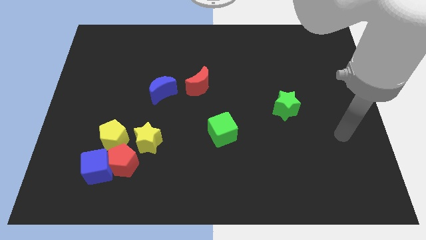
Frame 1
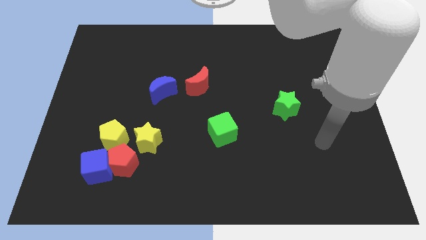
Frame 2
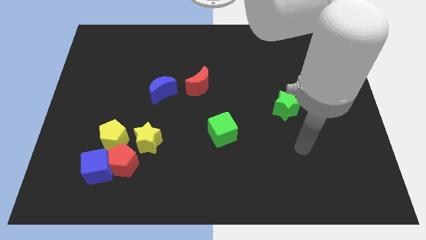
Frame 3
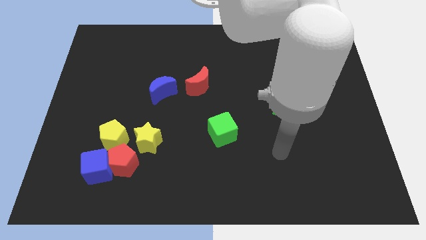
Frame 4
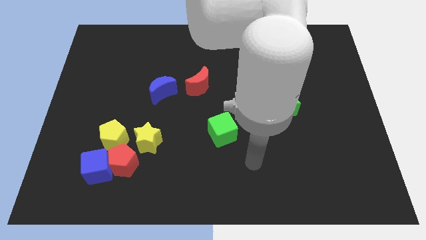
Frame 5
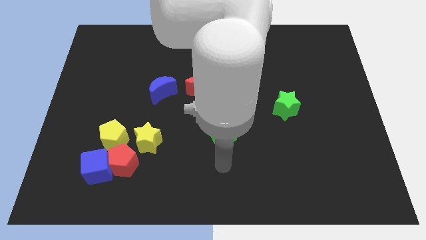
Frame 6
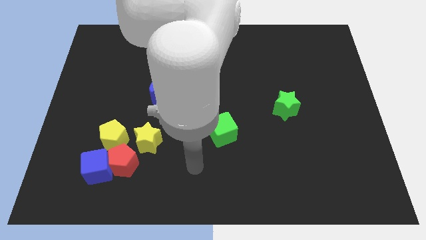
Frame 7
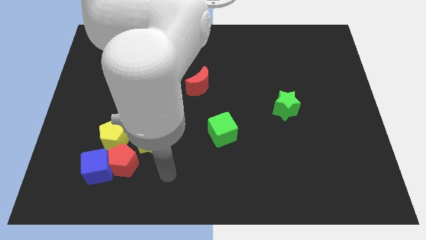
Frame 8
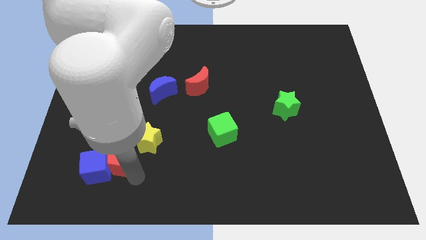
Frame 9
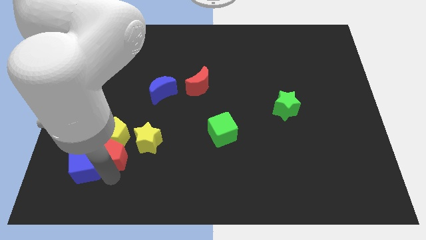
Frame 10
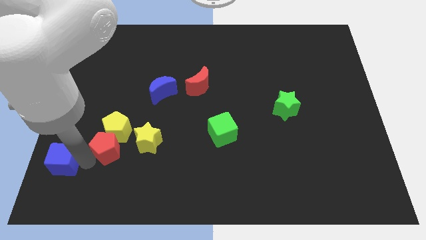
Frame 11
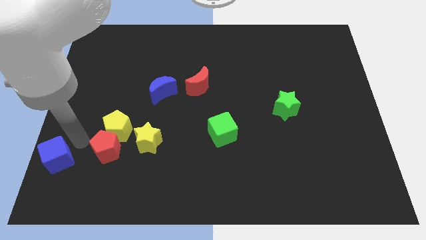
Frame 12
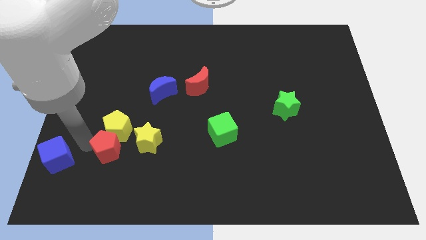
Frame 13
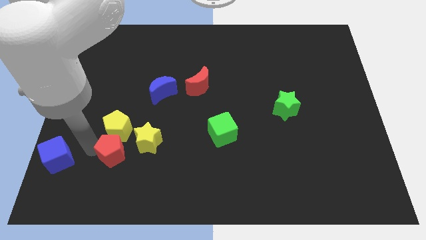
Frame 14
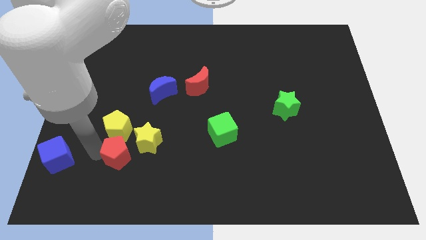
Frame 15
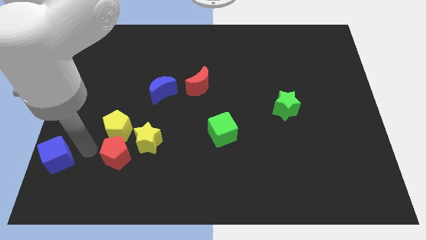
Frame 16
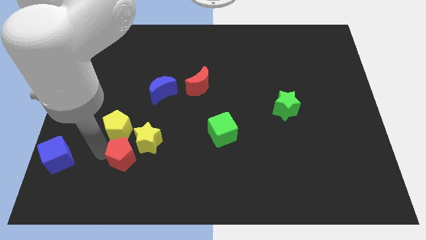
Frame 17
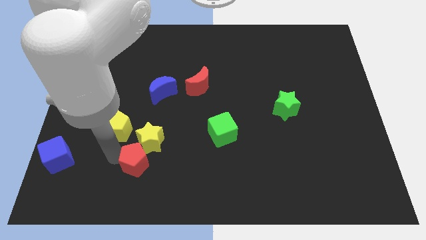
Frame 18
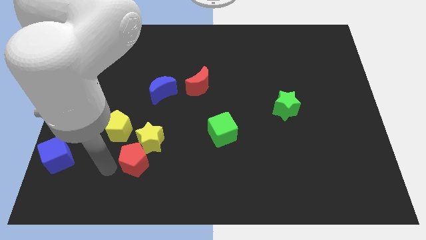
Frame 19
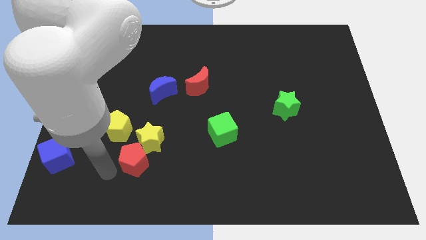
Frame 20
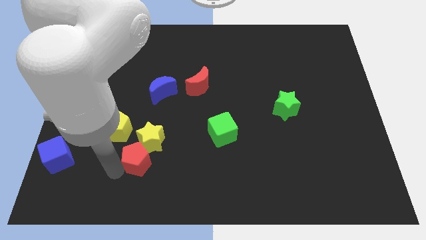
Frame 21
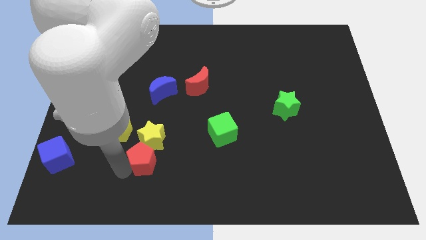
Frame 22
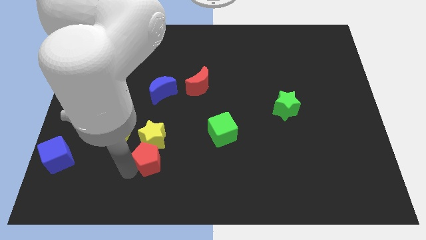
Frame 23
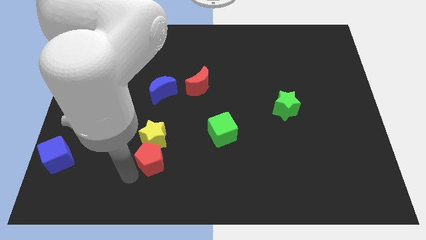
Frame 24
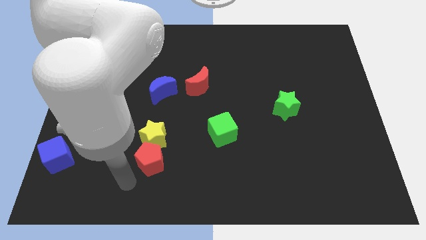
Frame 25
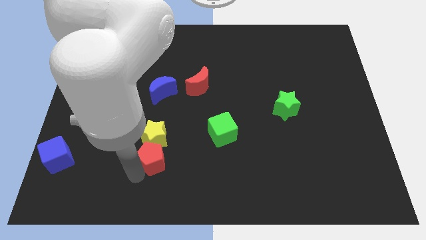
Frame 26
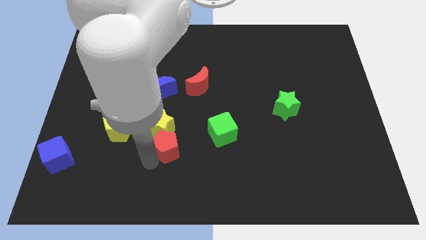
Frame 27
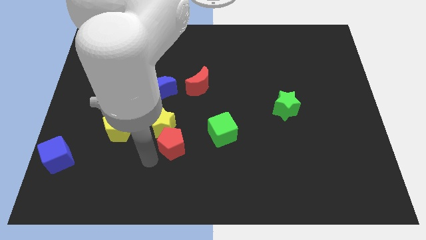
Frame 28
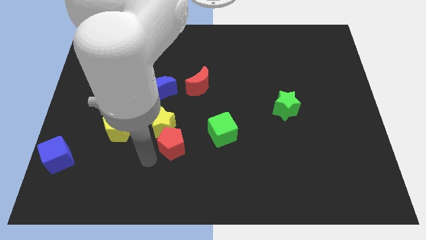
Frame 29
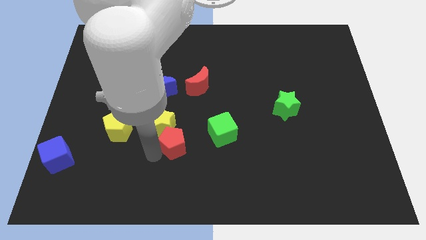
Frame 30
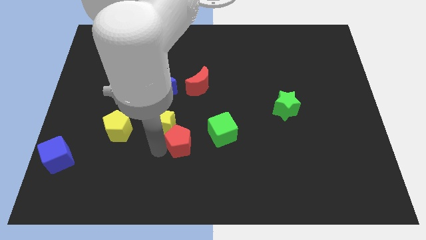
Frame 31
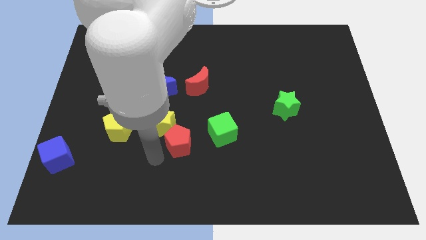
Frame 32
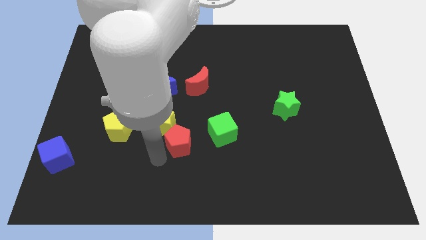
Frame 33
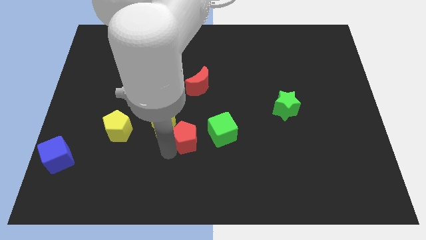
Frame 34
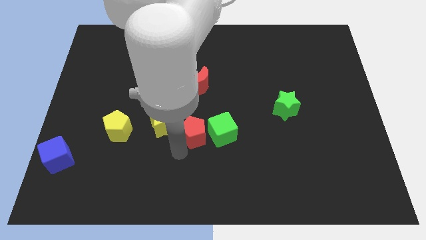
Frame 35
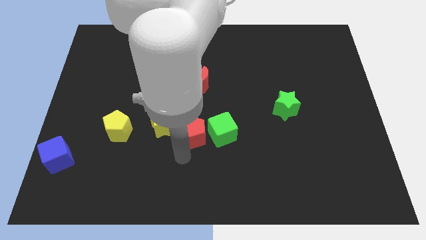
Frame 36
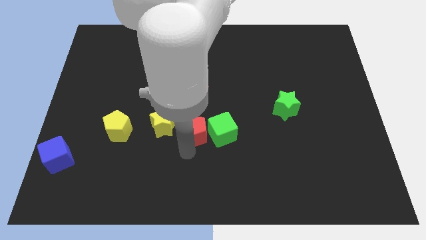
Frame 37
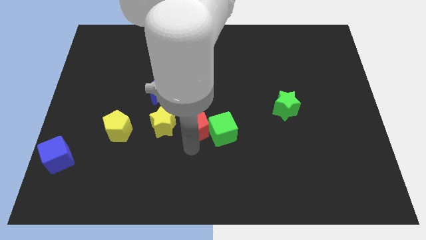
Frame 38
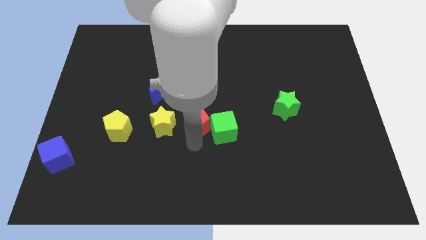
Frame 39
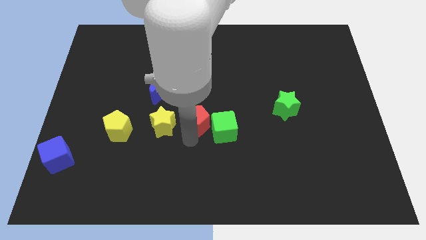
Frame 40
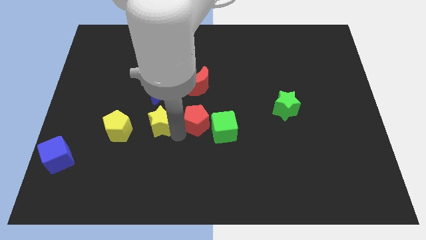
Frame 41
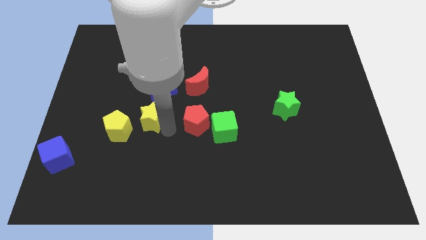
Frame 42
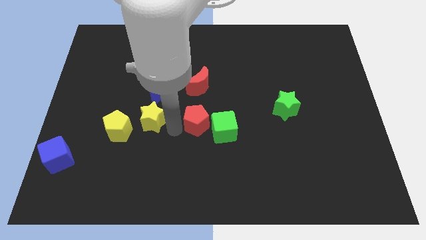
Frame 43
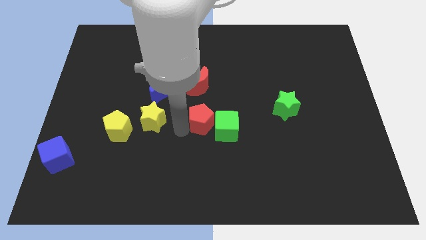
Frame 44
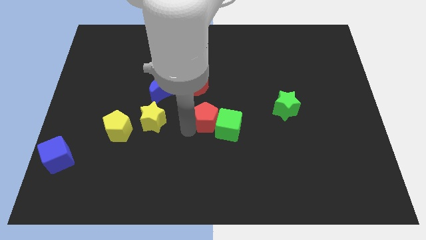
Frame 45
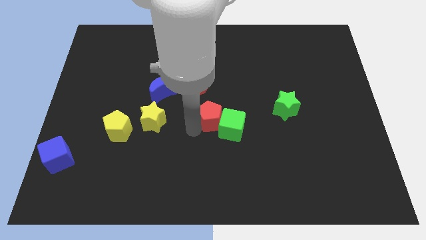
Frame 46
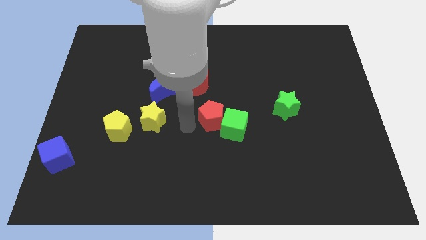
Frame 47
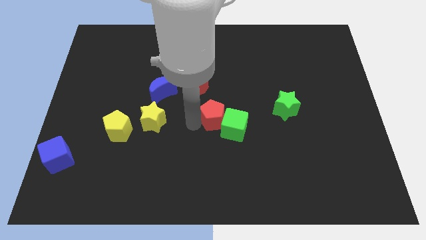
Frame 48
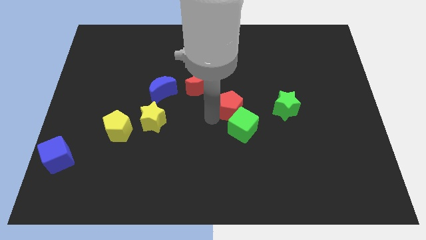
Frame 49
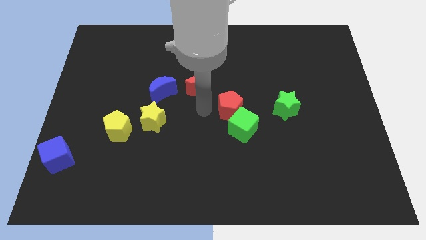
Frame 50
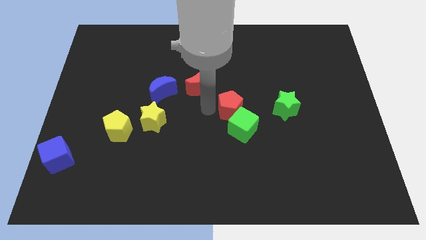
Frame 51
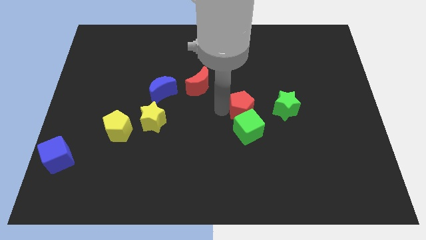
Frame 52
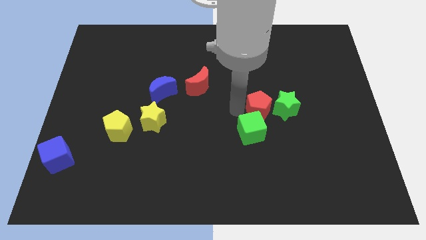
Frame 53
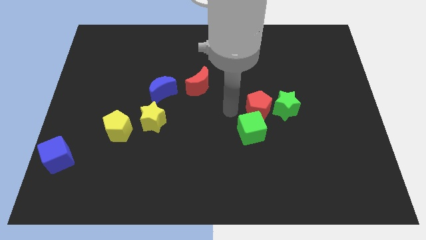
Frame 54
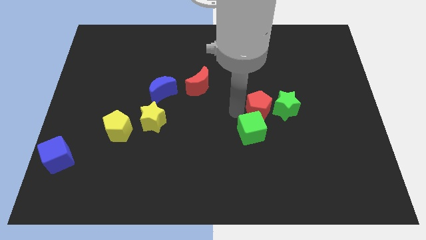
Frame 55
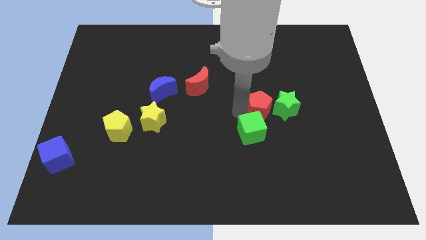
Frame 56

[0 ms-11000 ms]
push the red pentagon close to the green star

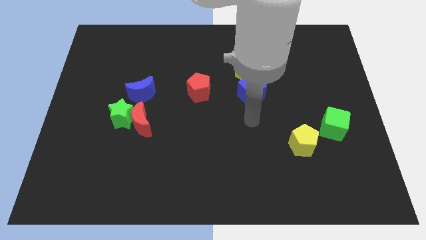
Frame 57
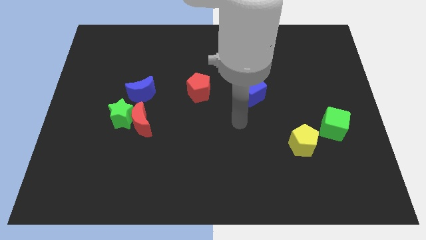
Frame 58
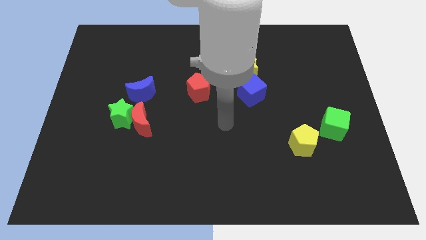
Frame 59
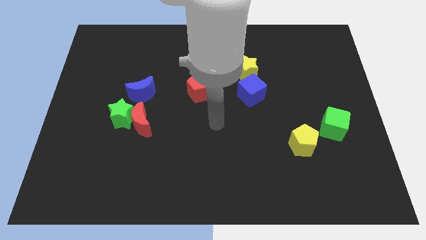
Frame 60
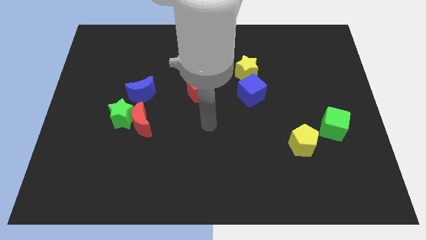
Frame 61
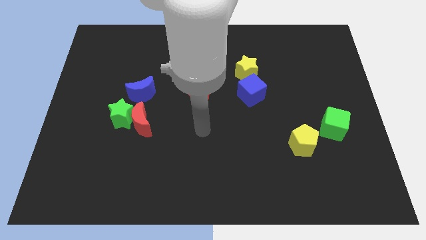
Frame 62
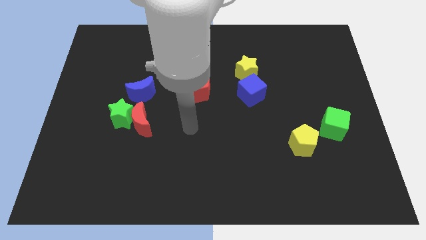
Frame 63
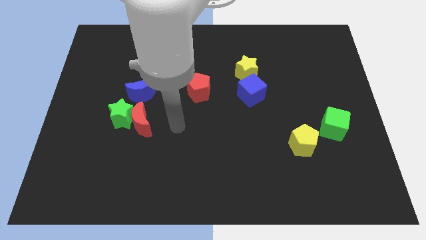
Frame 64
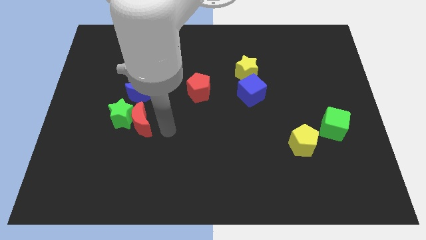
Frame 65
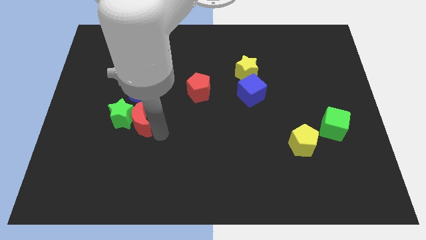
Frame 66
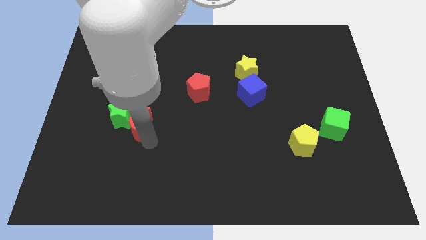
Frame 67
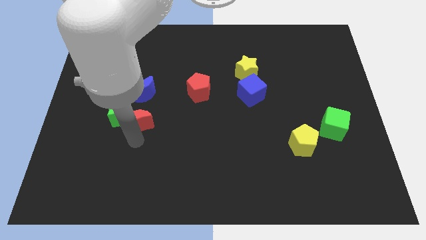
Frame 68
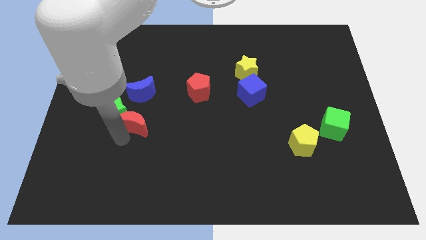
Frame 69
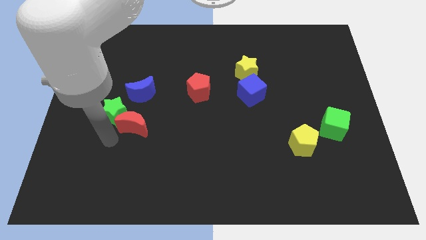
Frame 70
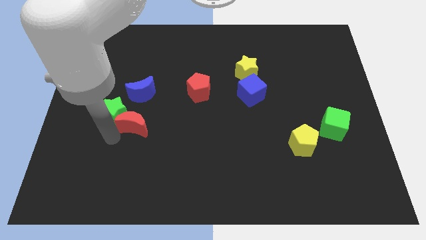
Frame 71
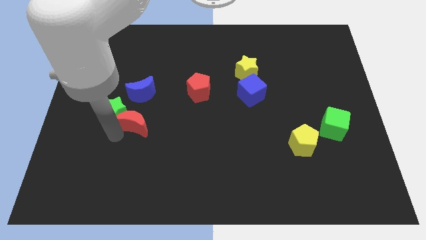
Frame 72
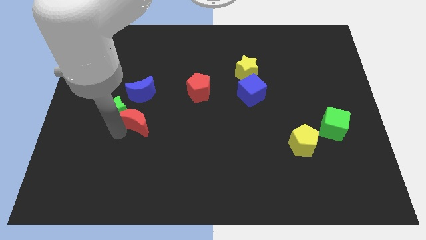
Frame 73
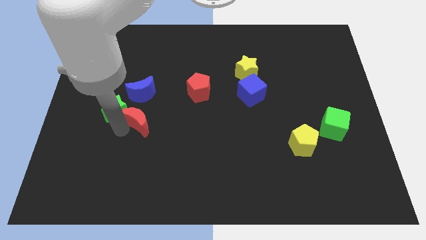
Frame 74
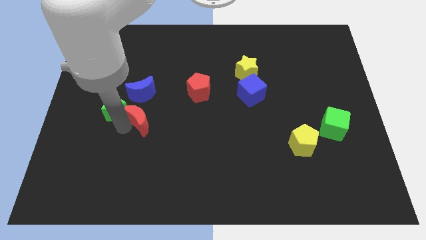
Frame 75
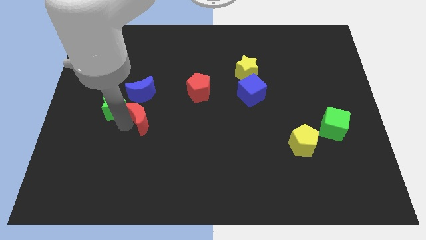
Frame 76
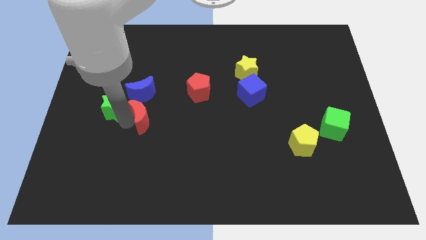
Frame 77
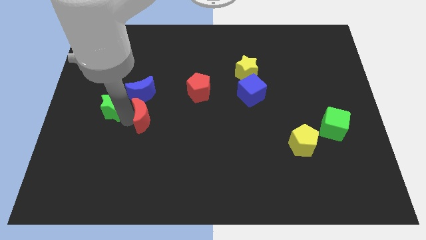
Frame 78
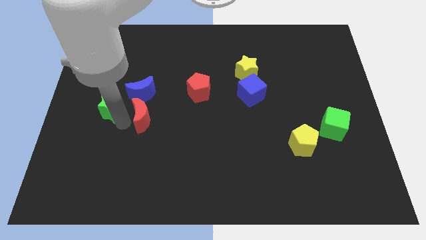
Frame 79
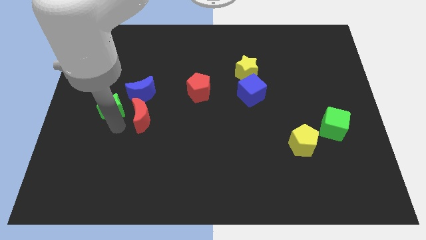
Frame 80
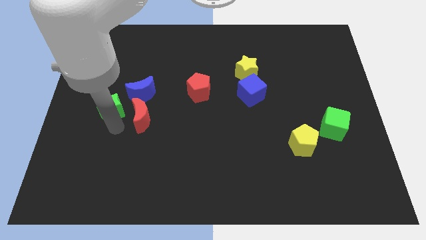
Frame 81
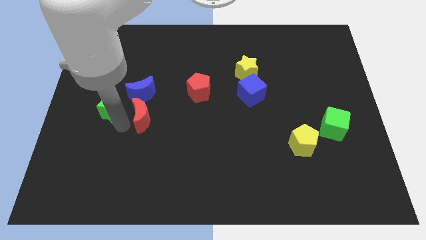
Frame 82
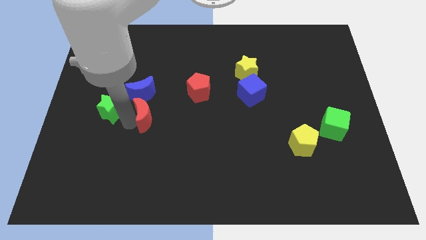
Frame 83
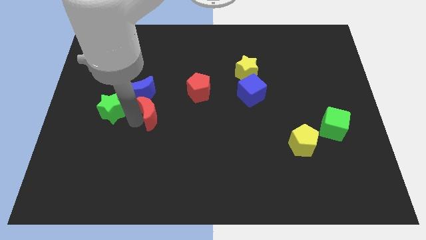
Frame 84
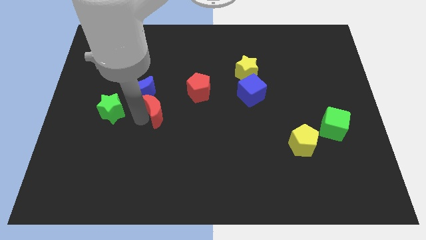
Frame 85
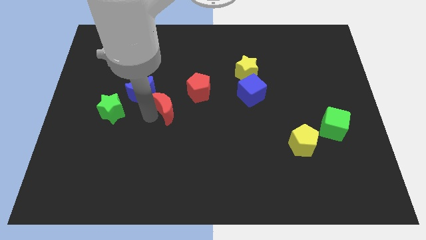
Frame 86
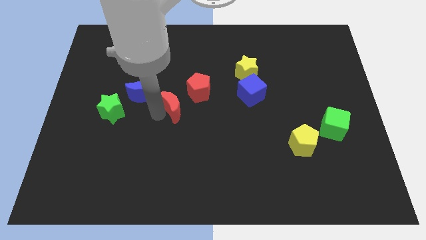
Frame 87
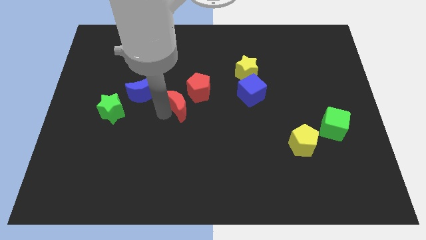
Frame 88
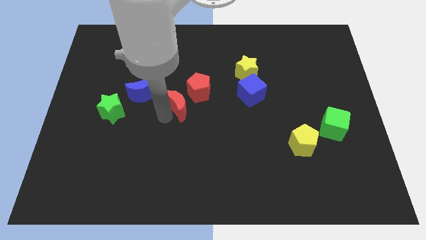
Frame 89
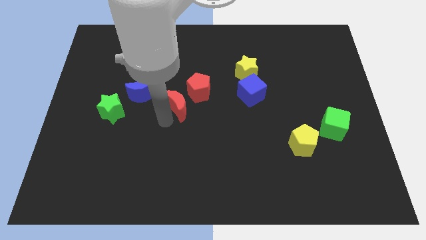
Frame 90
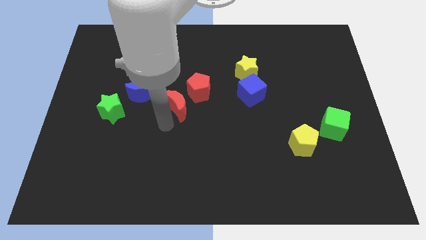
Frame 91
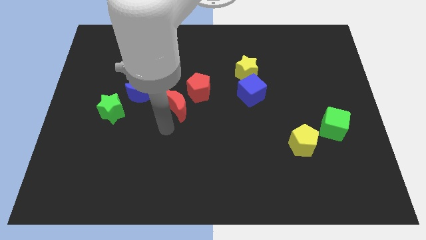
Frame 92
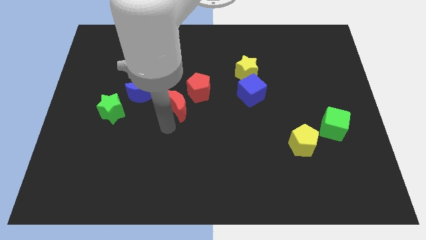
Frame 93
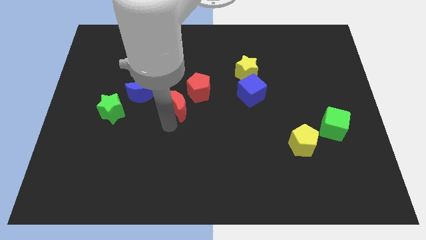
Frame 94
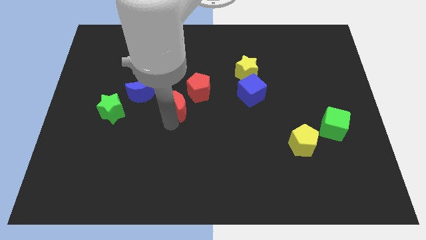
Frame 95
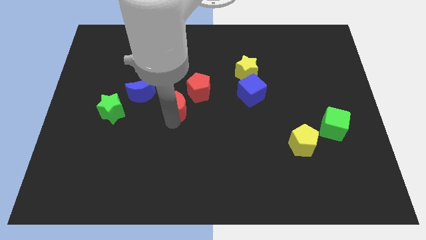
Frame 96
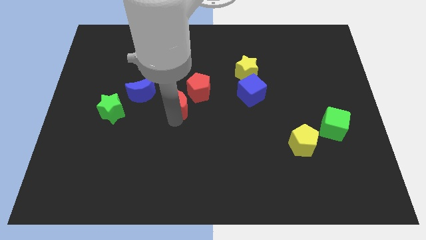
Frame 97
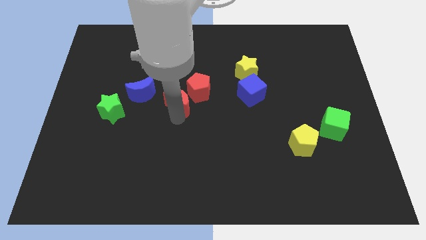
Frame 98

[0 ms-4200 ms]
move the red moon next to the red pentagon
